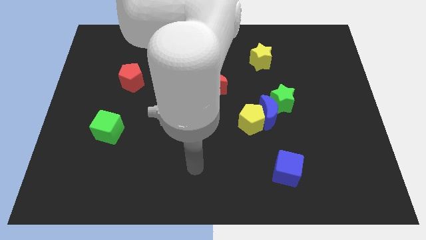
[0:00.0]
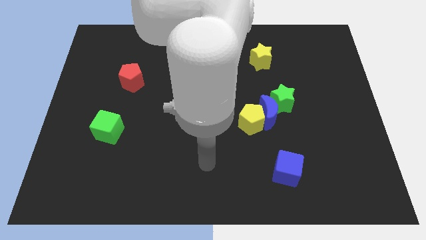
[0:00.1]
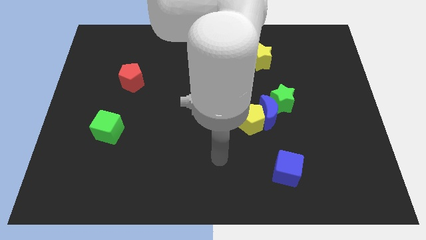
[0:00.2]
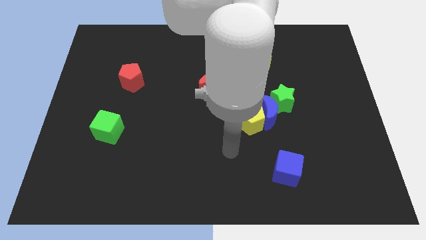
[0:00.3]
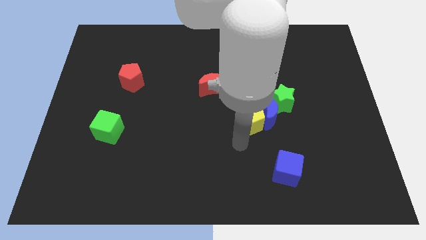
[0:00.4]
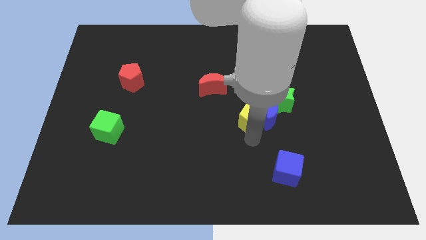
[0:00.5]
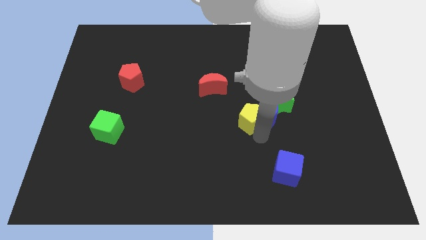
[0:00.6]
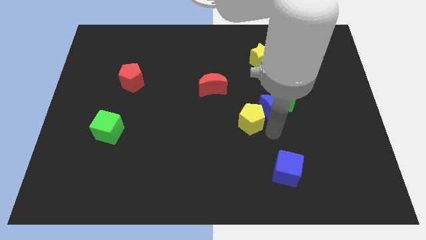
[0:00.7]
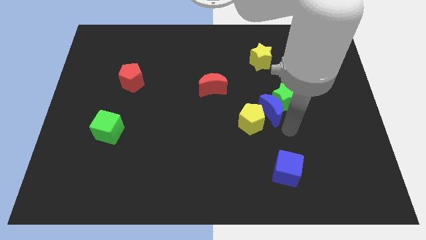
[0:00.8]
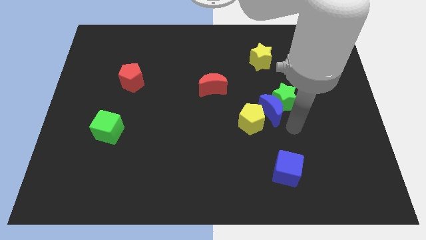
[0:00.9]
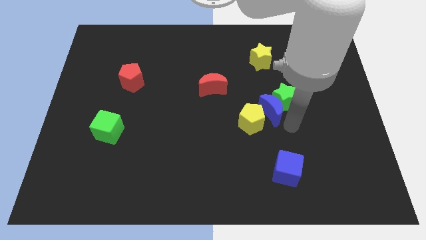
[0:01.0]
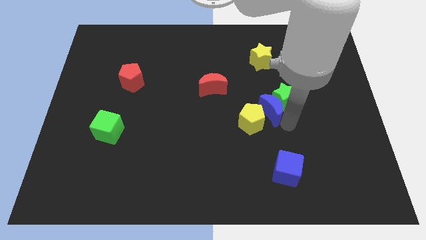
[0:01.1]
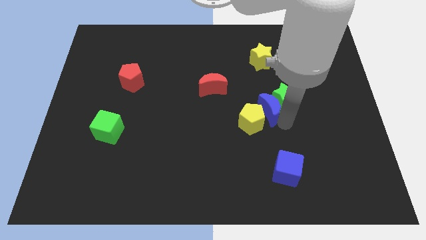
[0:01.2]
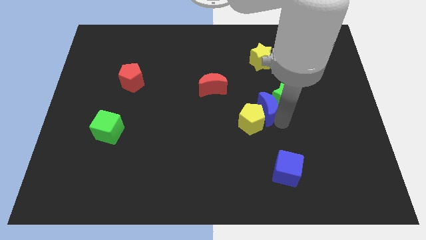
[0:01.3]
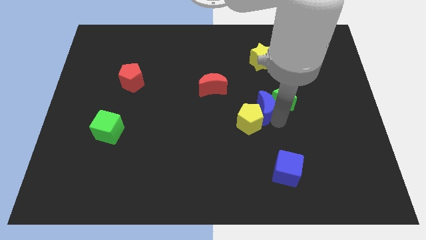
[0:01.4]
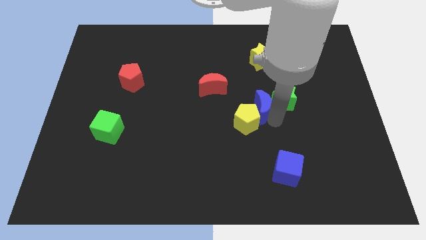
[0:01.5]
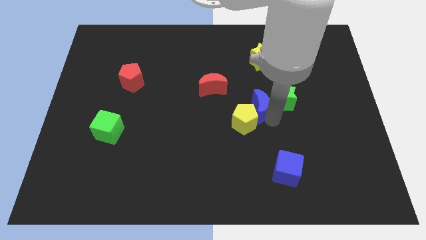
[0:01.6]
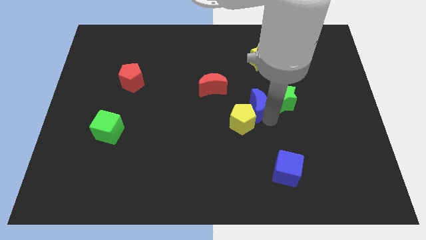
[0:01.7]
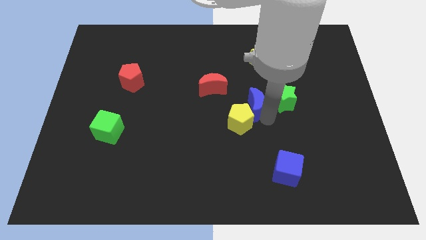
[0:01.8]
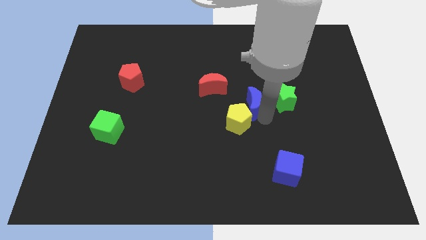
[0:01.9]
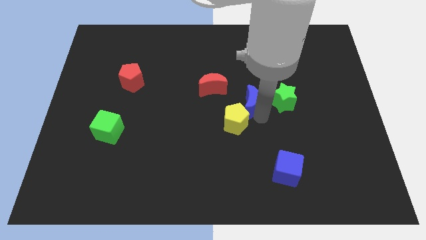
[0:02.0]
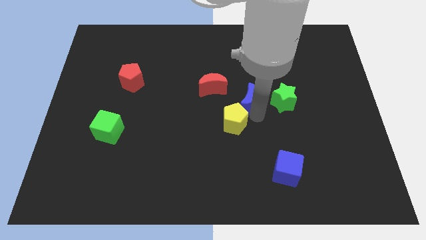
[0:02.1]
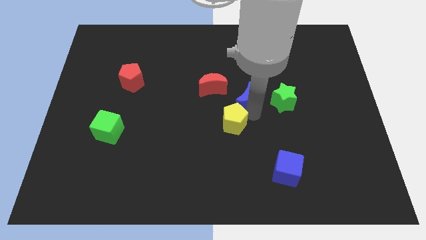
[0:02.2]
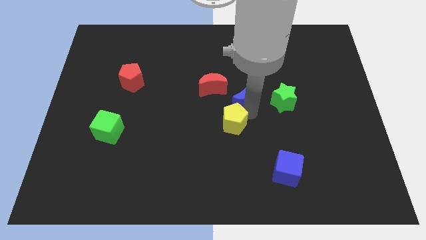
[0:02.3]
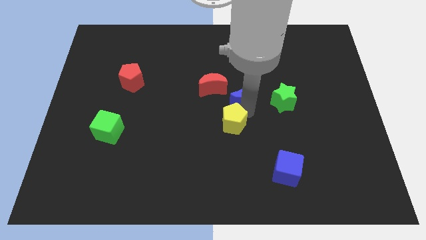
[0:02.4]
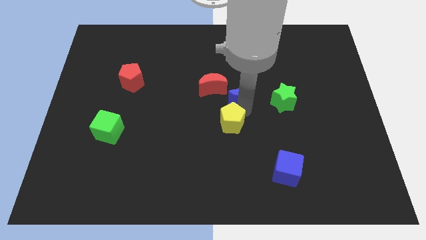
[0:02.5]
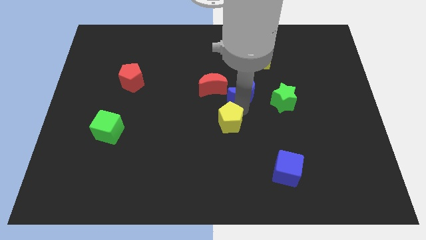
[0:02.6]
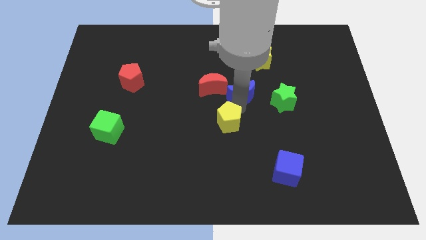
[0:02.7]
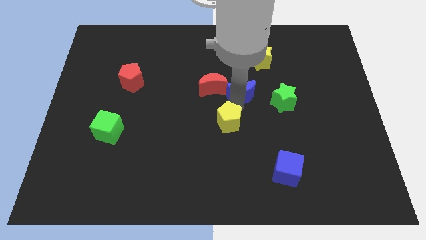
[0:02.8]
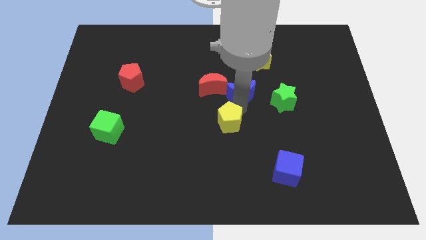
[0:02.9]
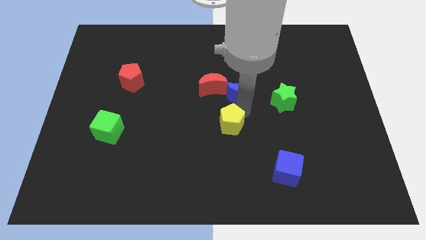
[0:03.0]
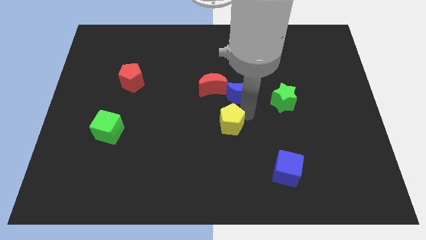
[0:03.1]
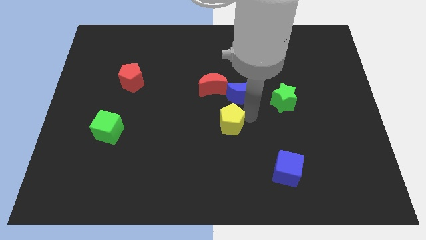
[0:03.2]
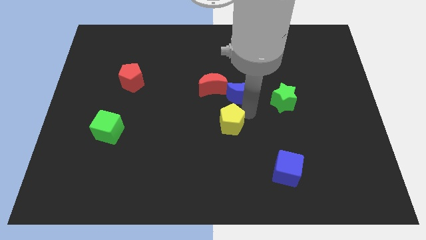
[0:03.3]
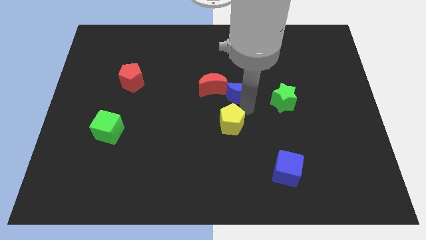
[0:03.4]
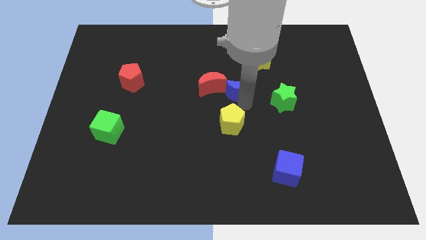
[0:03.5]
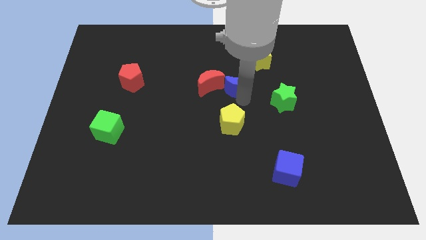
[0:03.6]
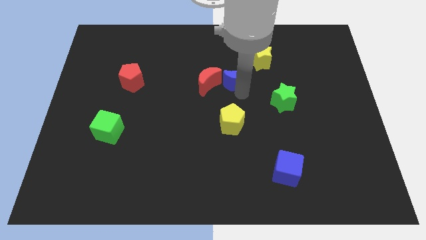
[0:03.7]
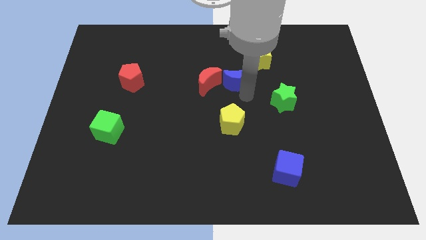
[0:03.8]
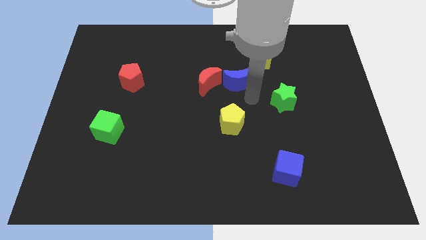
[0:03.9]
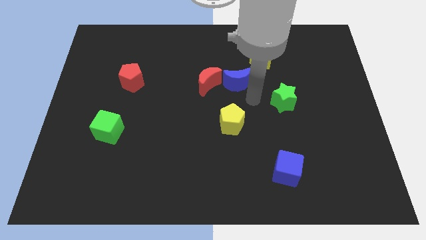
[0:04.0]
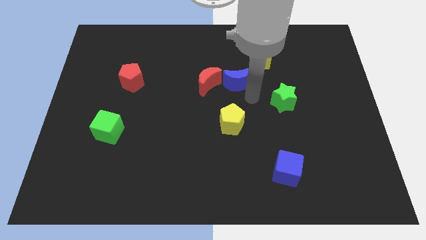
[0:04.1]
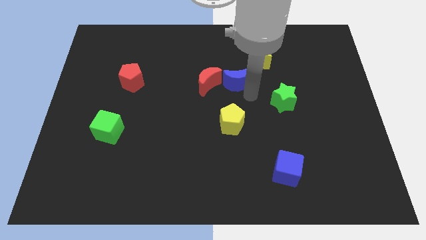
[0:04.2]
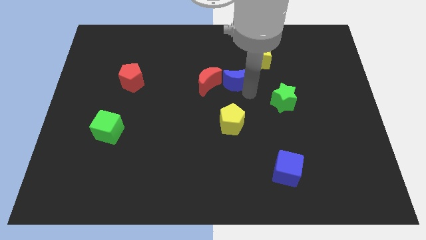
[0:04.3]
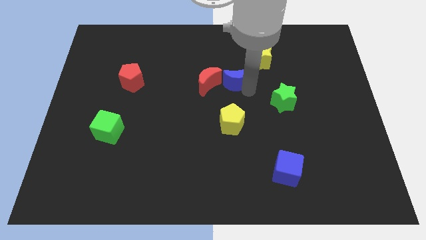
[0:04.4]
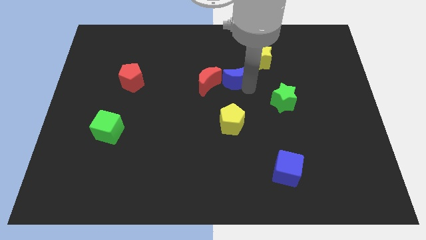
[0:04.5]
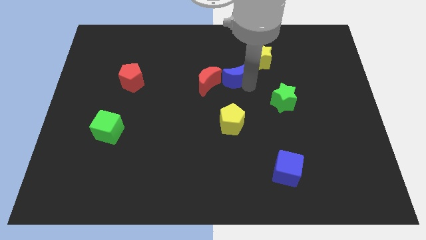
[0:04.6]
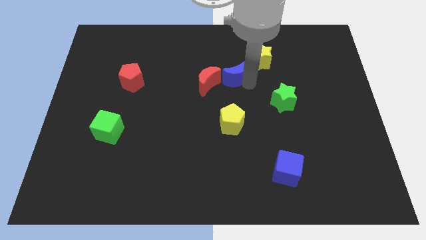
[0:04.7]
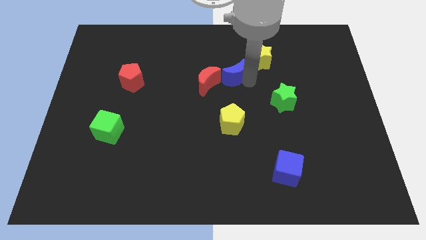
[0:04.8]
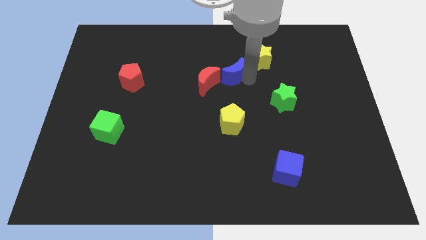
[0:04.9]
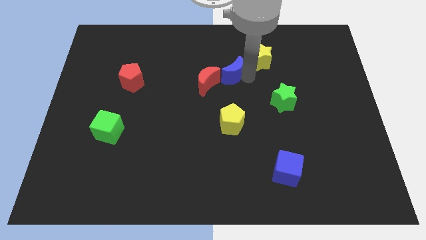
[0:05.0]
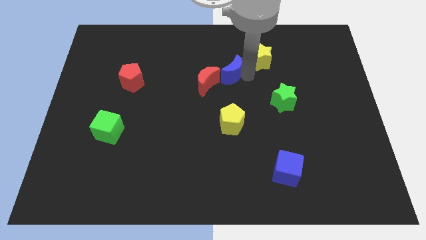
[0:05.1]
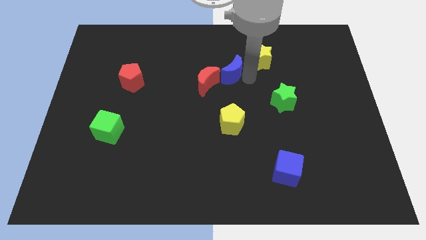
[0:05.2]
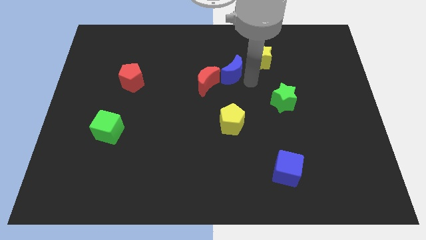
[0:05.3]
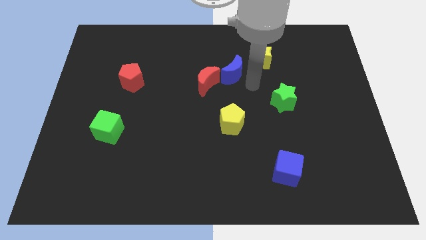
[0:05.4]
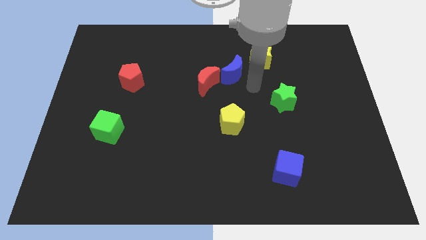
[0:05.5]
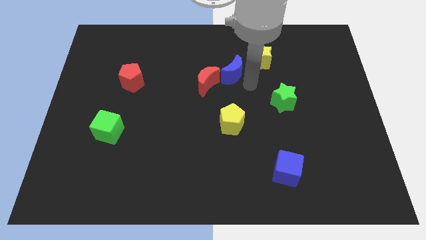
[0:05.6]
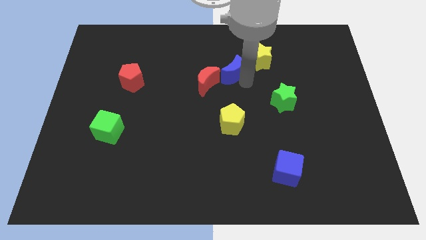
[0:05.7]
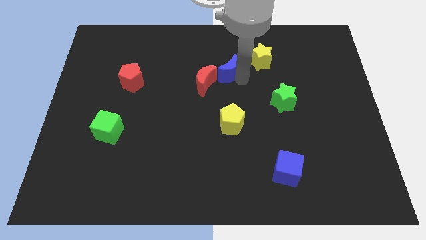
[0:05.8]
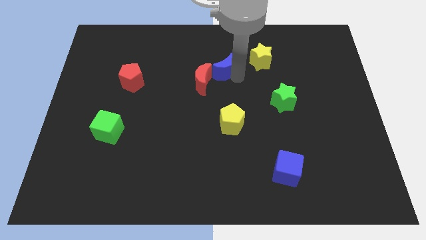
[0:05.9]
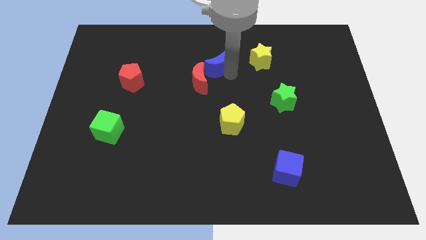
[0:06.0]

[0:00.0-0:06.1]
put the blue moon to the top side of the red moon

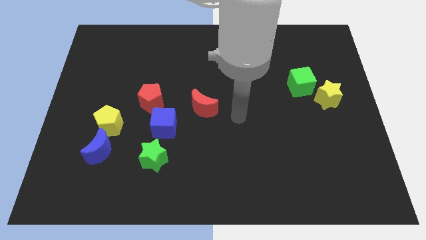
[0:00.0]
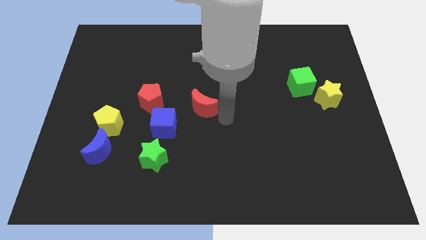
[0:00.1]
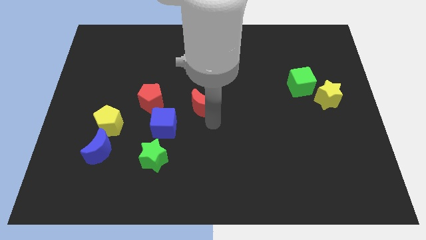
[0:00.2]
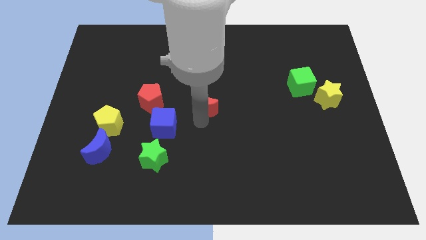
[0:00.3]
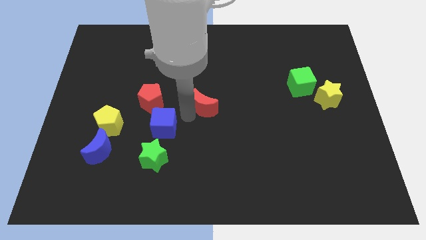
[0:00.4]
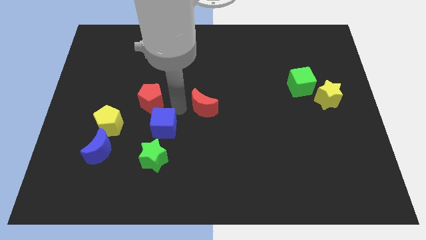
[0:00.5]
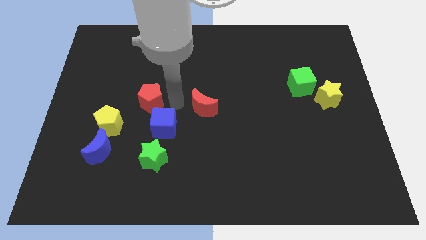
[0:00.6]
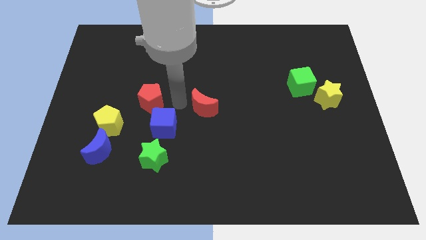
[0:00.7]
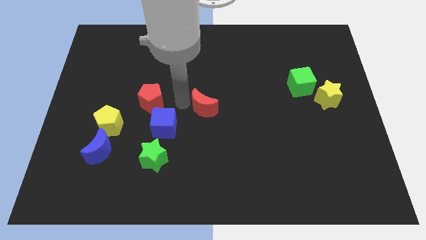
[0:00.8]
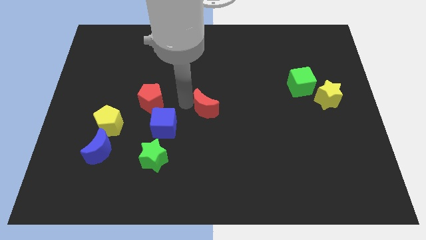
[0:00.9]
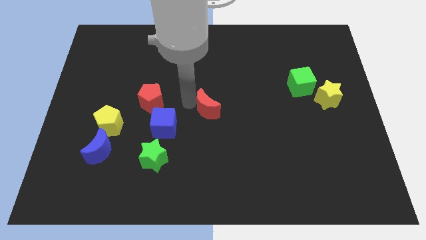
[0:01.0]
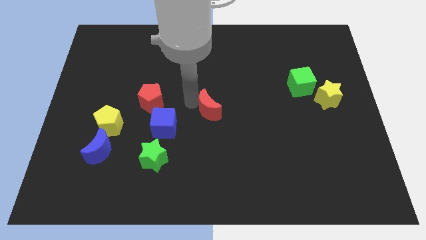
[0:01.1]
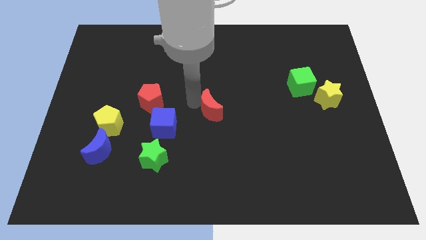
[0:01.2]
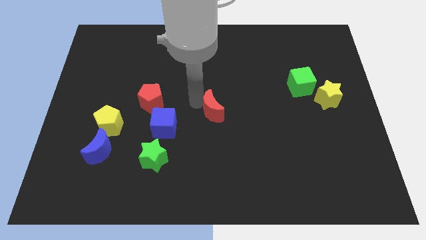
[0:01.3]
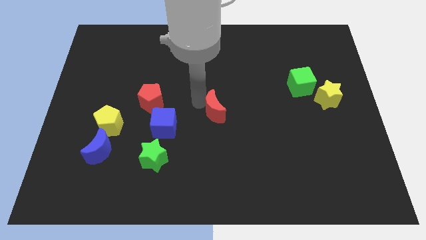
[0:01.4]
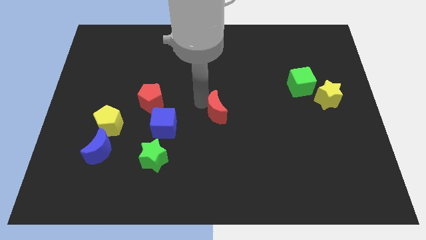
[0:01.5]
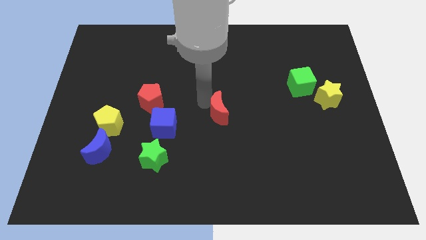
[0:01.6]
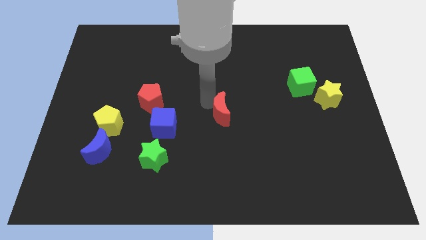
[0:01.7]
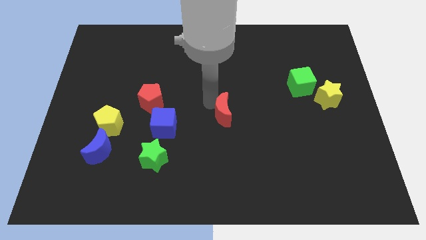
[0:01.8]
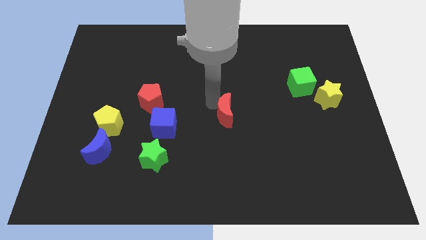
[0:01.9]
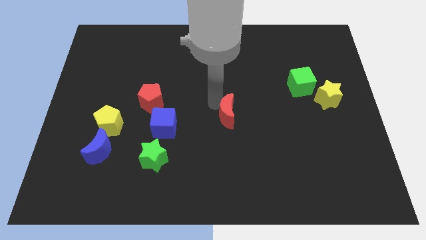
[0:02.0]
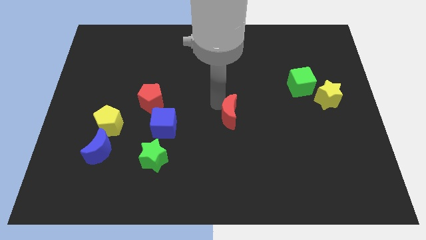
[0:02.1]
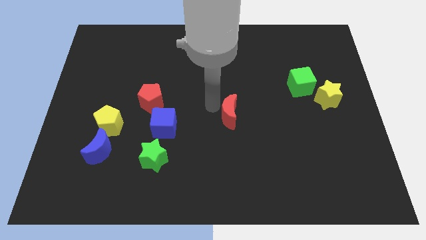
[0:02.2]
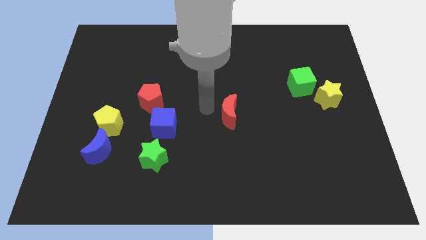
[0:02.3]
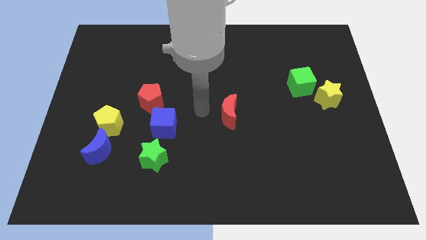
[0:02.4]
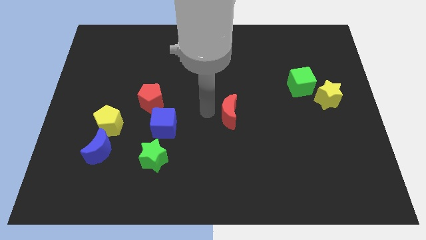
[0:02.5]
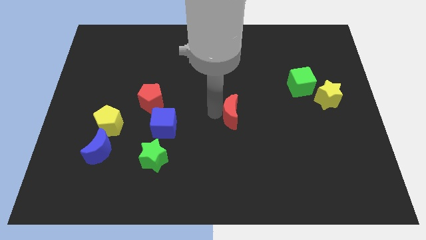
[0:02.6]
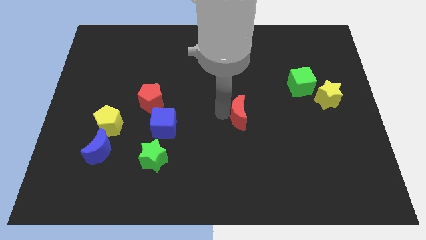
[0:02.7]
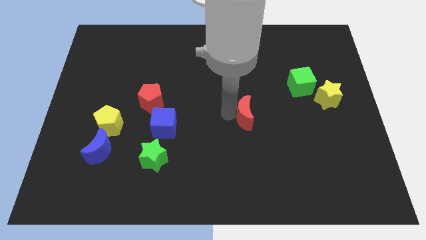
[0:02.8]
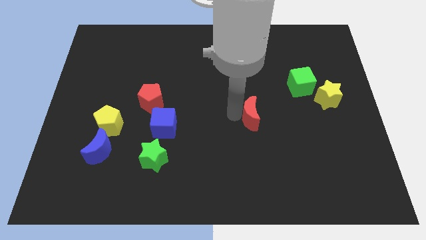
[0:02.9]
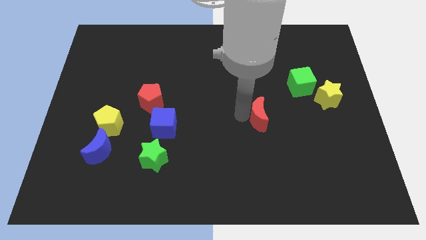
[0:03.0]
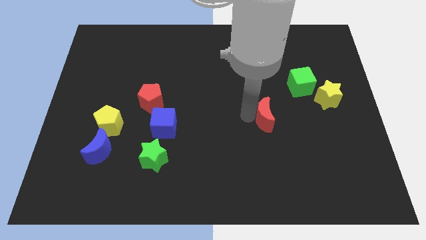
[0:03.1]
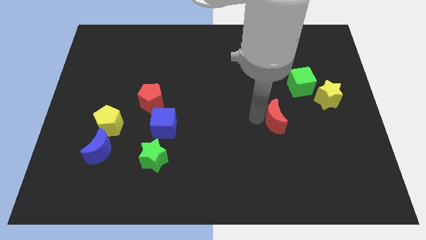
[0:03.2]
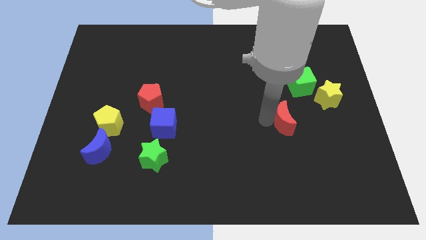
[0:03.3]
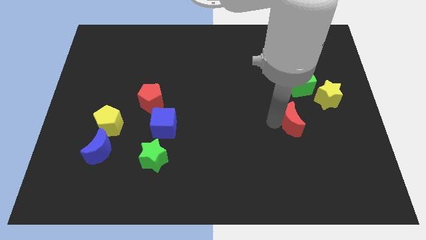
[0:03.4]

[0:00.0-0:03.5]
put the red moon to the bottom left of the yellow star
